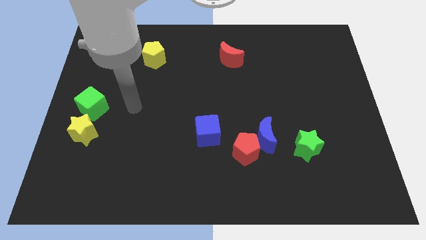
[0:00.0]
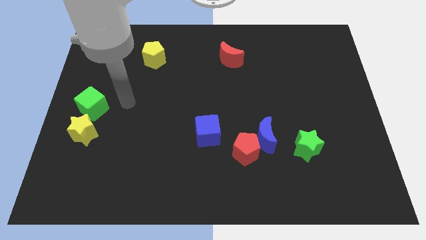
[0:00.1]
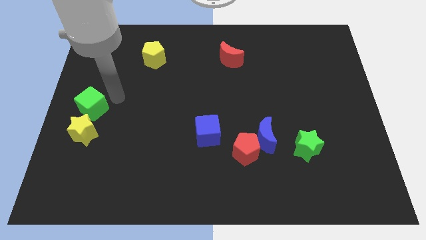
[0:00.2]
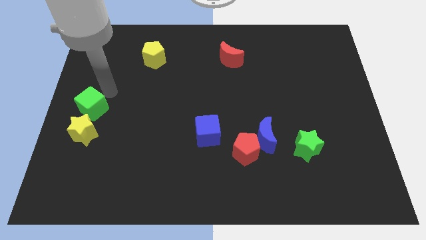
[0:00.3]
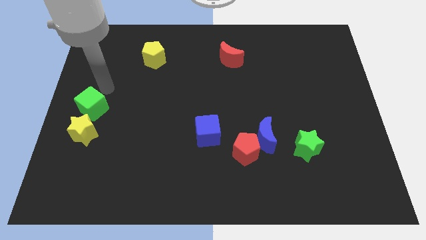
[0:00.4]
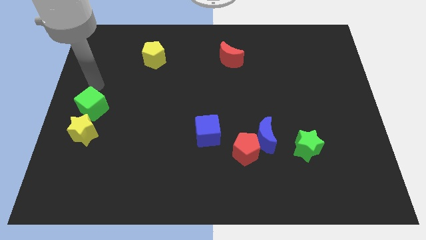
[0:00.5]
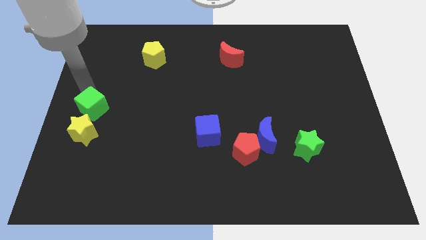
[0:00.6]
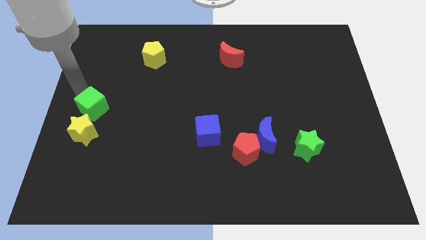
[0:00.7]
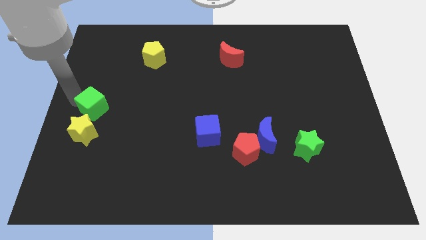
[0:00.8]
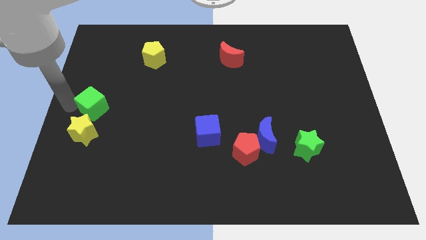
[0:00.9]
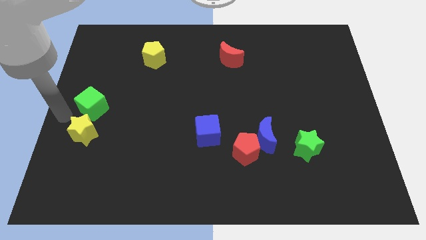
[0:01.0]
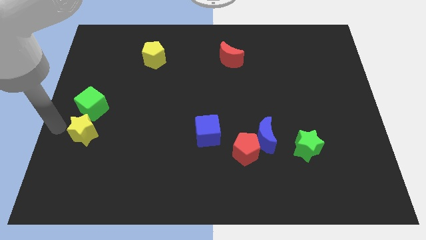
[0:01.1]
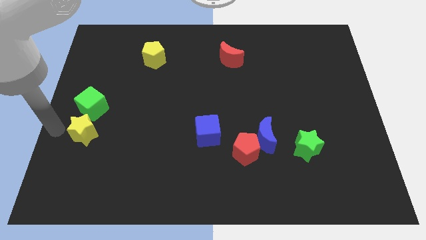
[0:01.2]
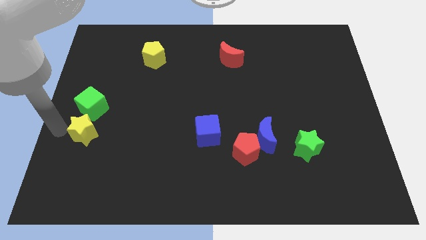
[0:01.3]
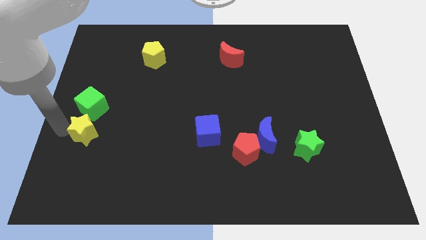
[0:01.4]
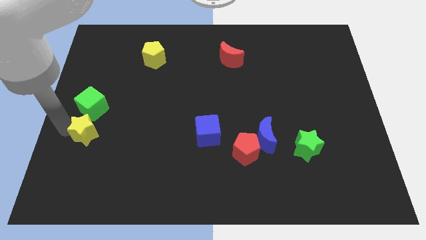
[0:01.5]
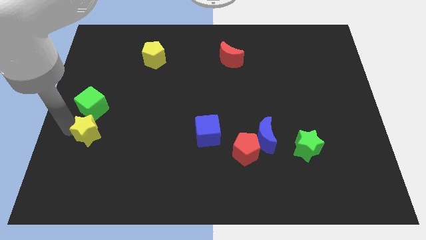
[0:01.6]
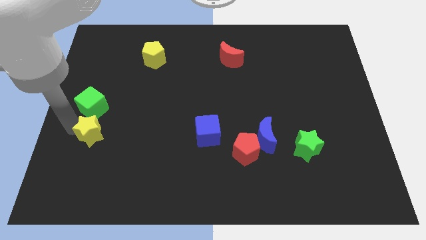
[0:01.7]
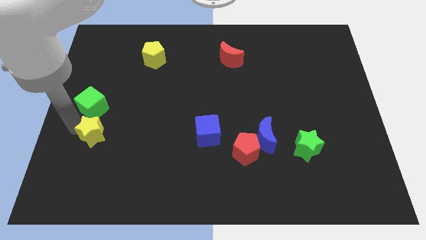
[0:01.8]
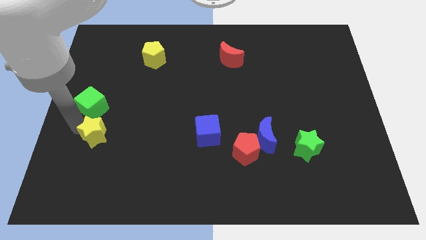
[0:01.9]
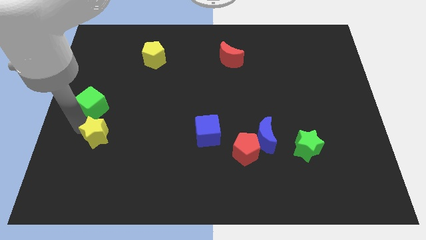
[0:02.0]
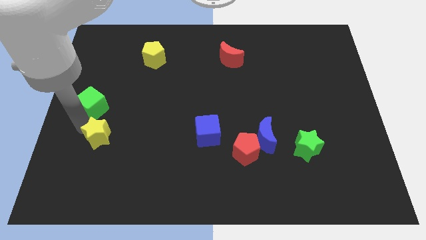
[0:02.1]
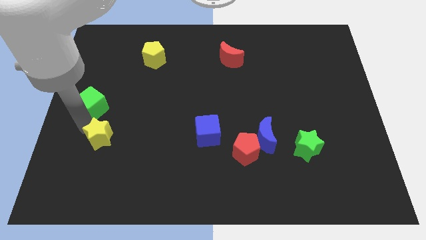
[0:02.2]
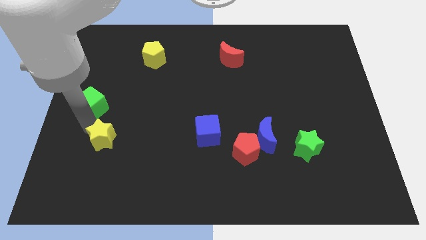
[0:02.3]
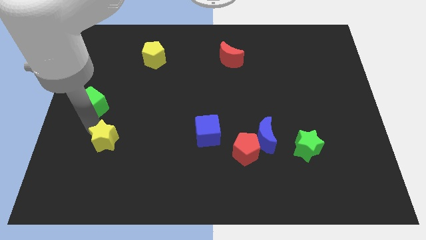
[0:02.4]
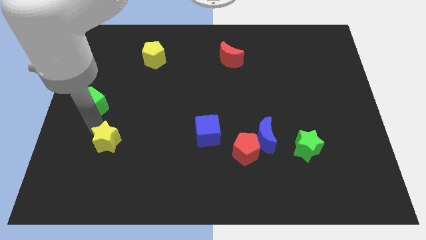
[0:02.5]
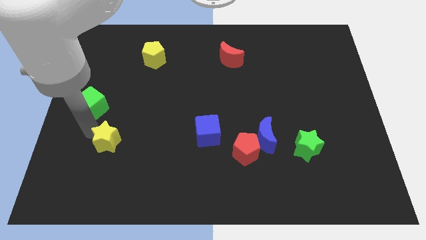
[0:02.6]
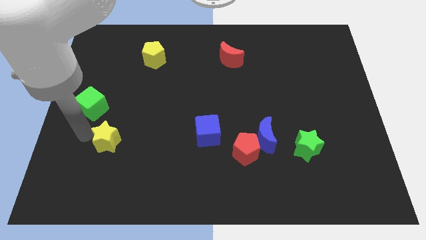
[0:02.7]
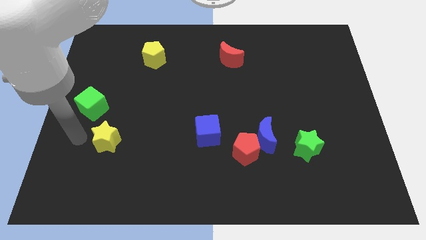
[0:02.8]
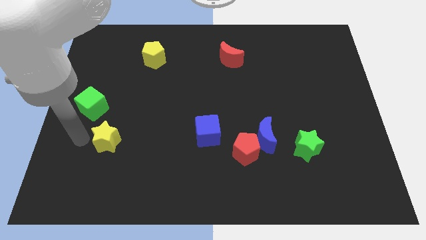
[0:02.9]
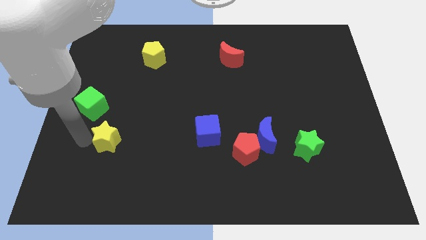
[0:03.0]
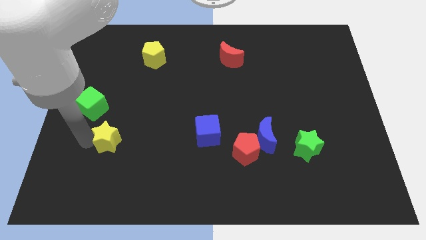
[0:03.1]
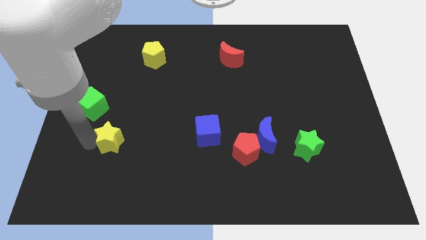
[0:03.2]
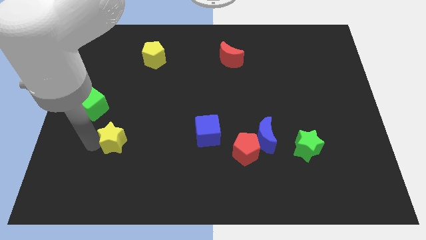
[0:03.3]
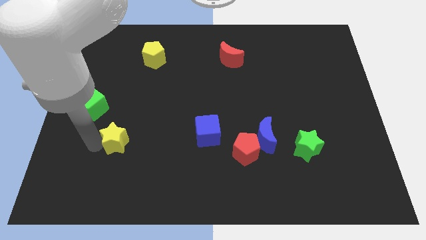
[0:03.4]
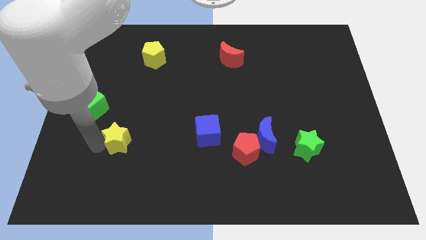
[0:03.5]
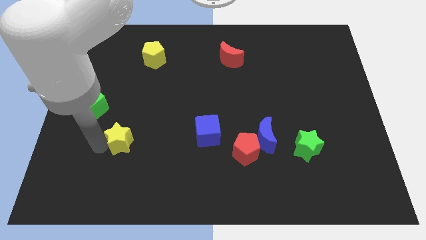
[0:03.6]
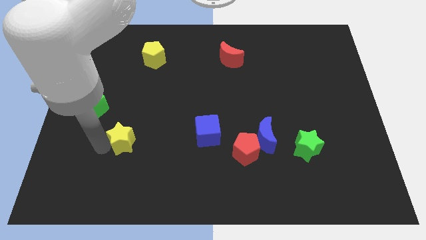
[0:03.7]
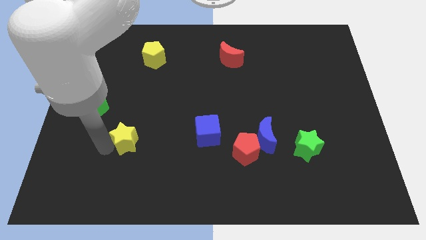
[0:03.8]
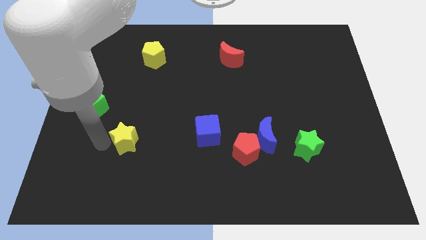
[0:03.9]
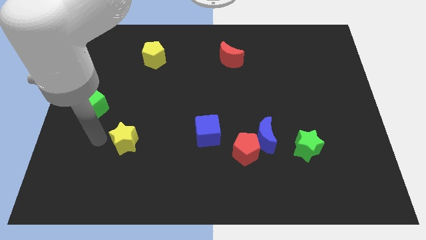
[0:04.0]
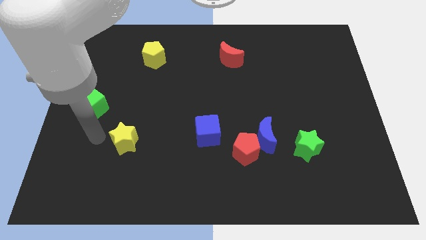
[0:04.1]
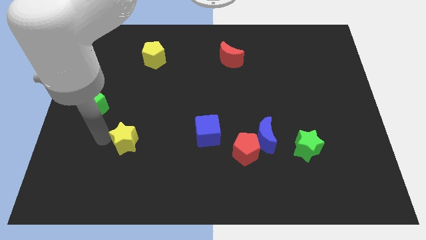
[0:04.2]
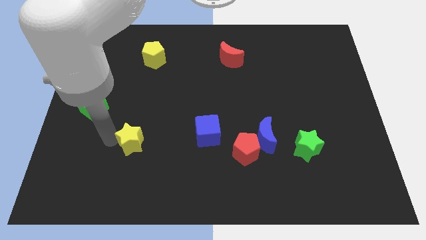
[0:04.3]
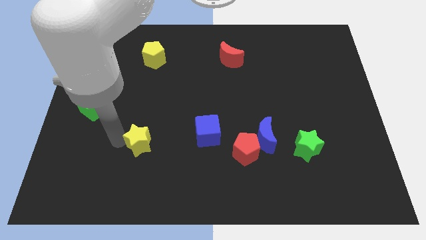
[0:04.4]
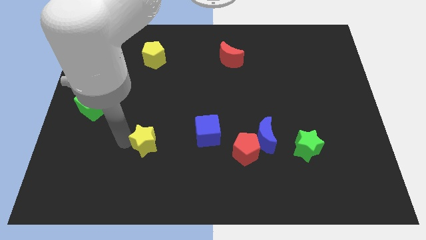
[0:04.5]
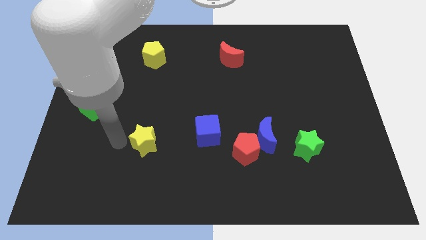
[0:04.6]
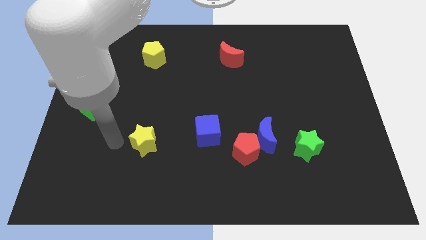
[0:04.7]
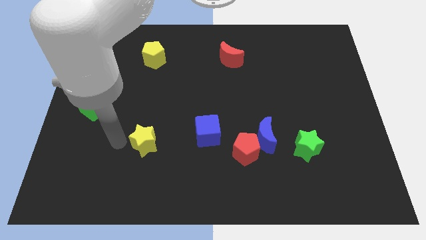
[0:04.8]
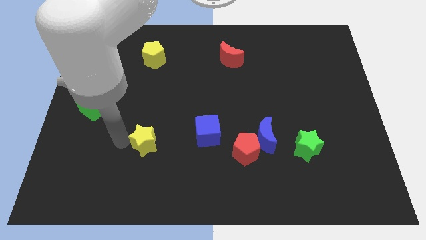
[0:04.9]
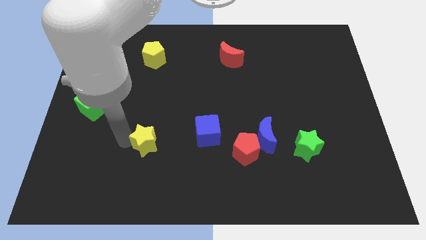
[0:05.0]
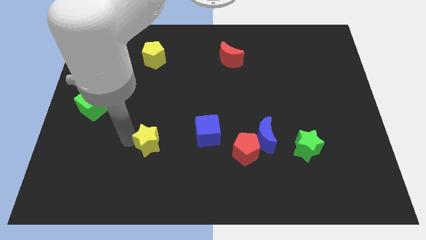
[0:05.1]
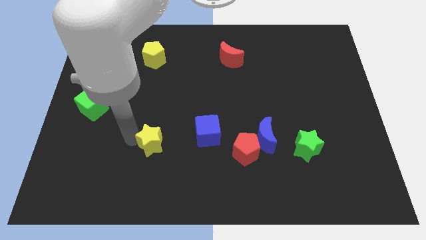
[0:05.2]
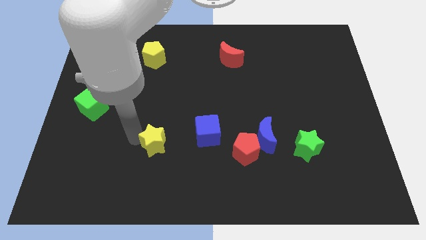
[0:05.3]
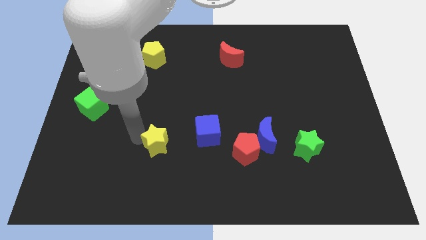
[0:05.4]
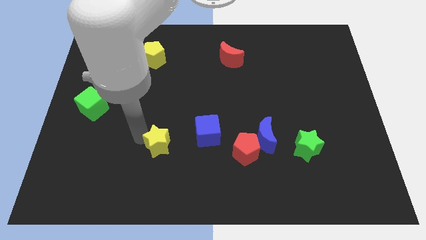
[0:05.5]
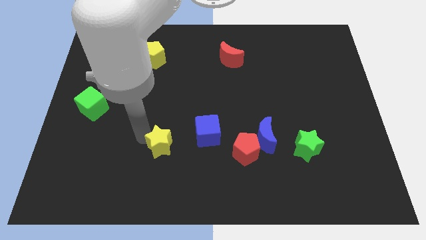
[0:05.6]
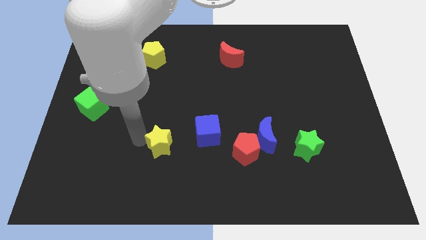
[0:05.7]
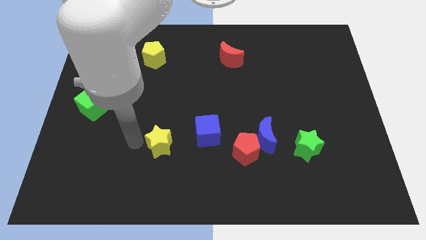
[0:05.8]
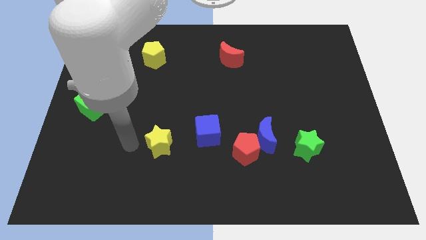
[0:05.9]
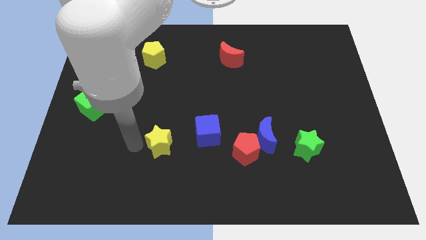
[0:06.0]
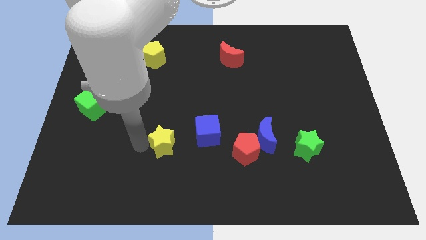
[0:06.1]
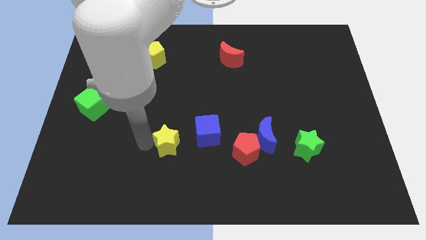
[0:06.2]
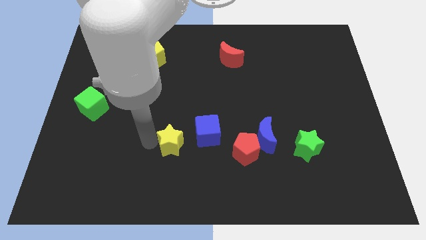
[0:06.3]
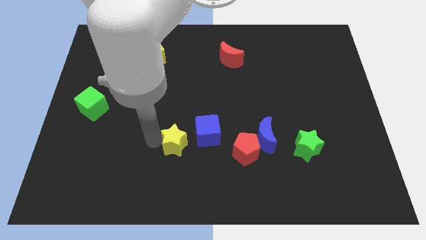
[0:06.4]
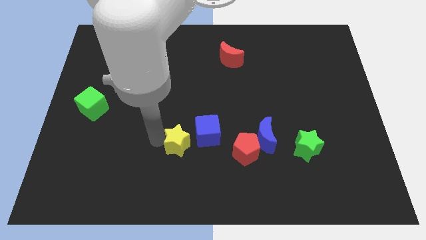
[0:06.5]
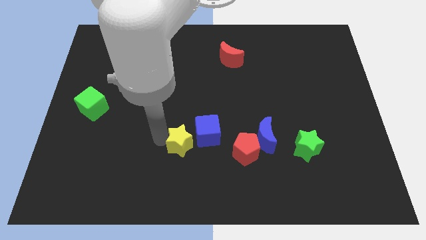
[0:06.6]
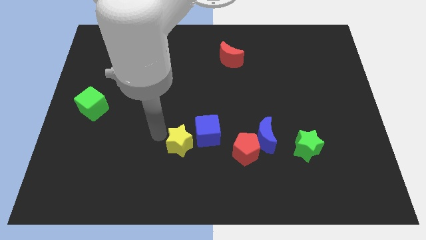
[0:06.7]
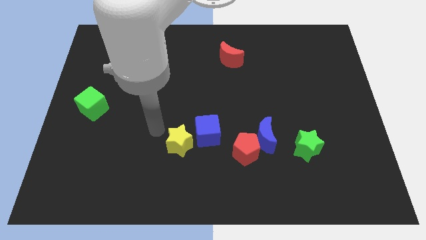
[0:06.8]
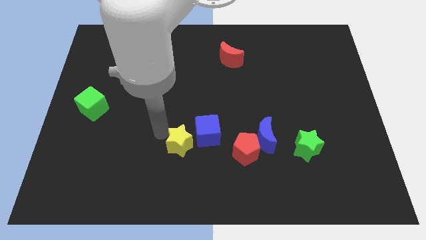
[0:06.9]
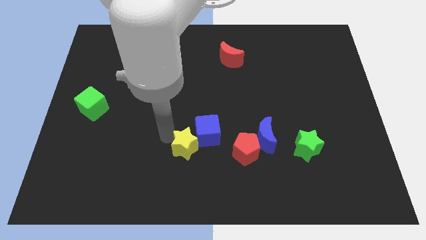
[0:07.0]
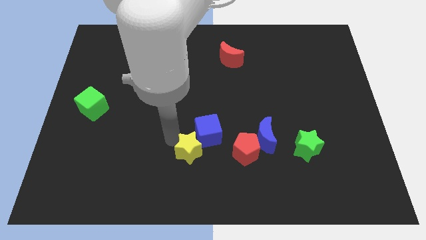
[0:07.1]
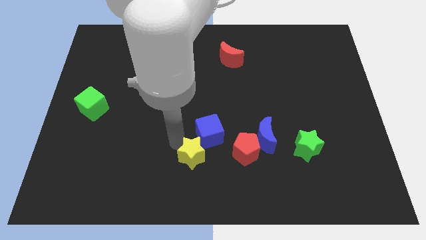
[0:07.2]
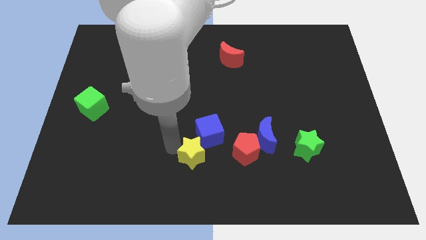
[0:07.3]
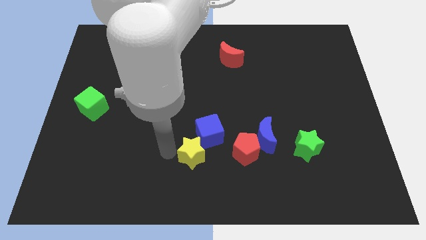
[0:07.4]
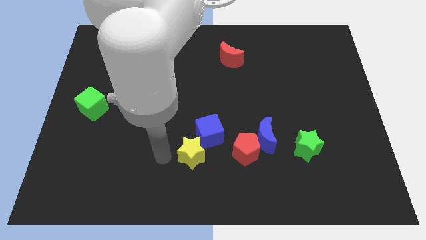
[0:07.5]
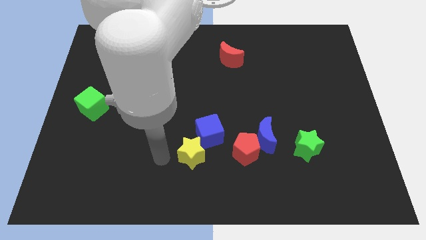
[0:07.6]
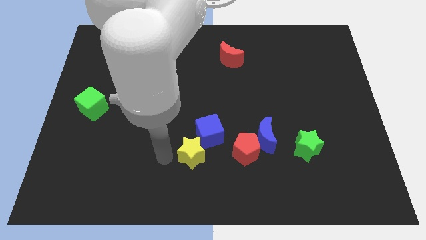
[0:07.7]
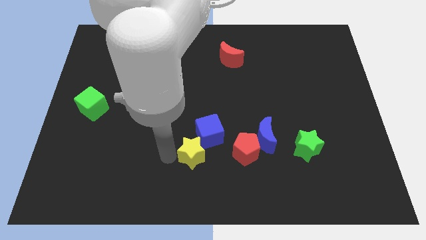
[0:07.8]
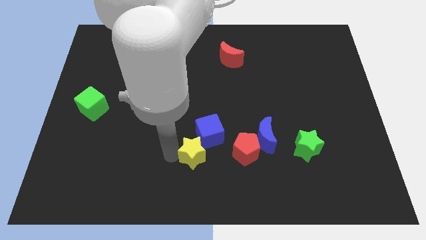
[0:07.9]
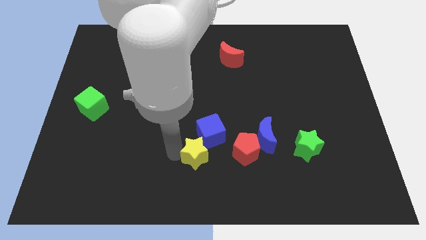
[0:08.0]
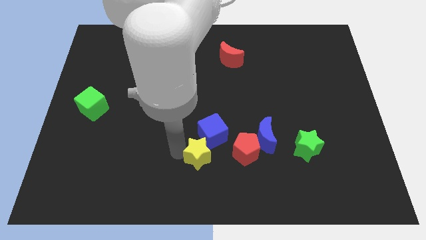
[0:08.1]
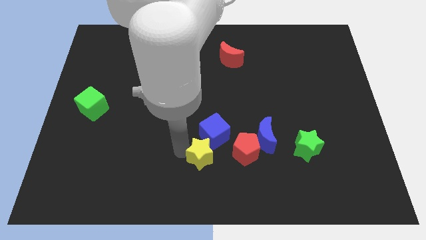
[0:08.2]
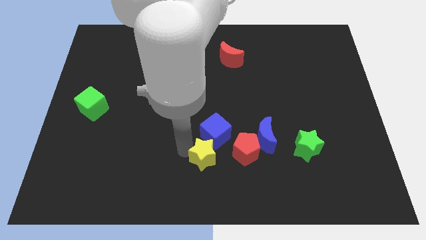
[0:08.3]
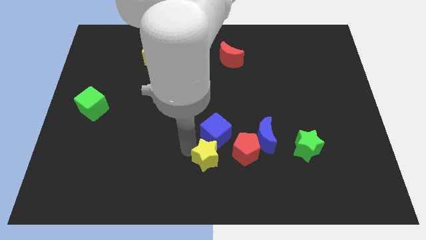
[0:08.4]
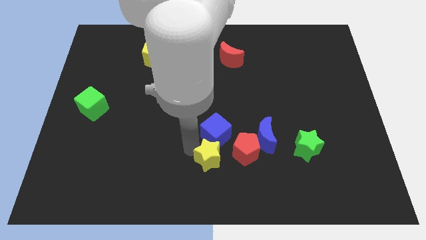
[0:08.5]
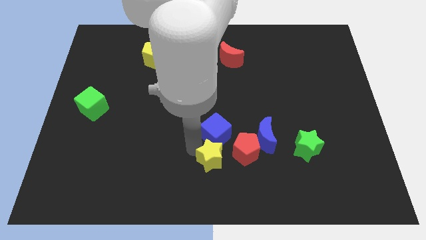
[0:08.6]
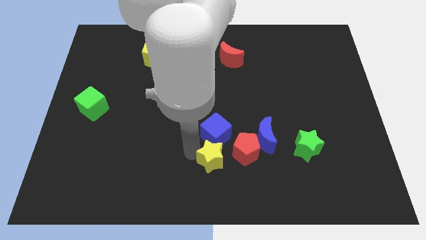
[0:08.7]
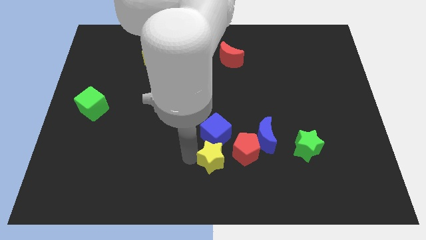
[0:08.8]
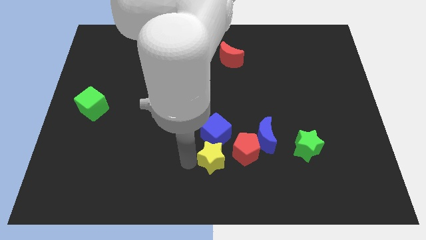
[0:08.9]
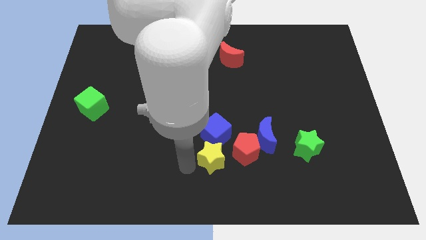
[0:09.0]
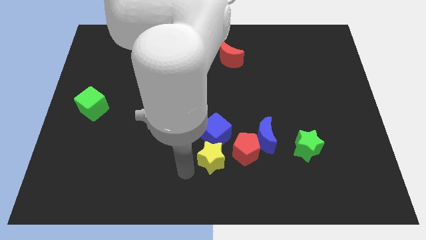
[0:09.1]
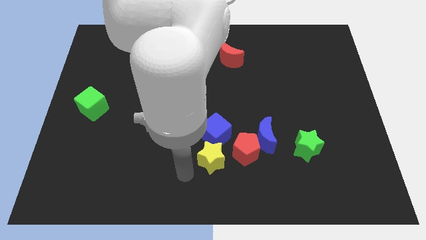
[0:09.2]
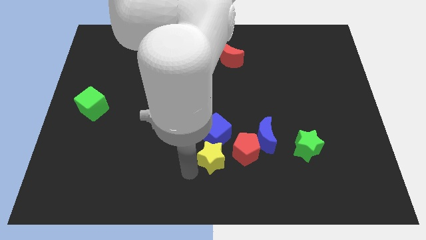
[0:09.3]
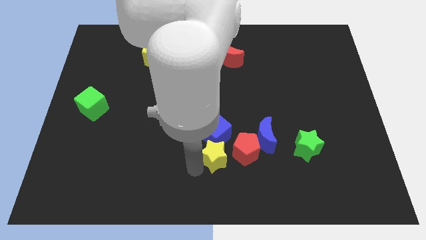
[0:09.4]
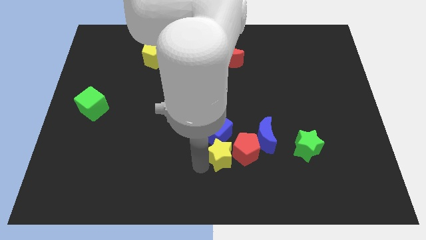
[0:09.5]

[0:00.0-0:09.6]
slide the yellow star to the red pentagon
